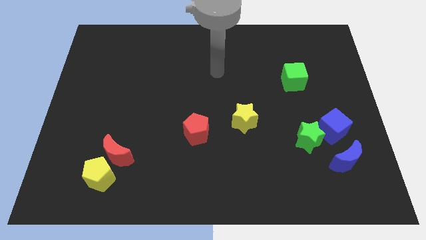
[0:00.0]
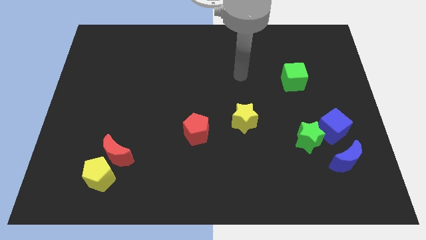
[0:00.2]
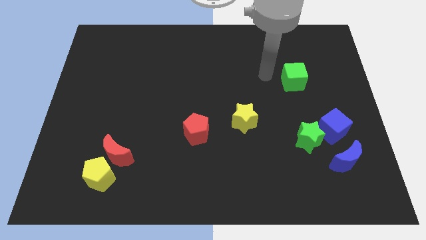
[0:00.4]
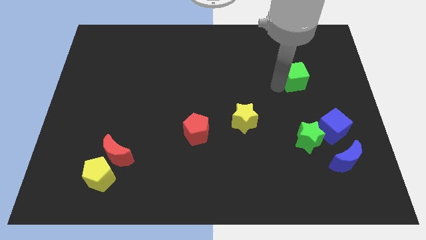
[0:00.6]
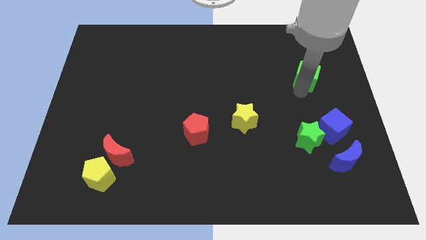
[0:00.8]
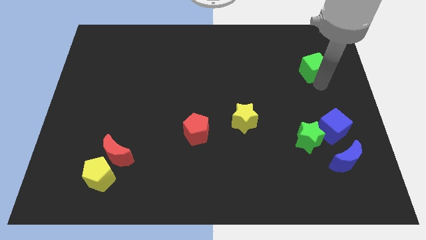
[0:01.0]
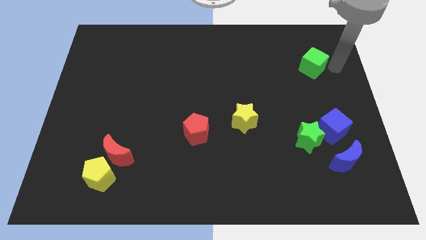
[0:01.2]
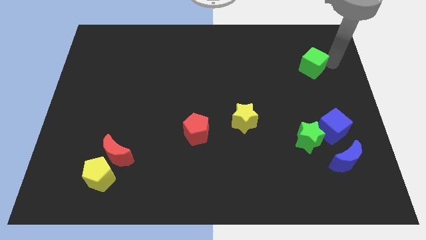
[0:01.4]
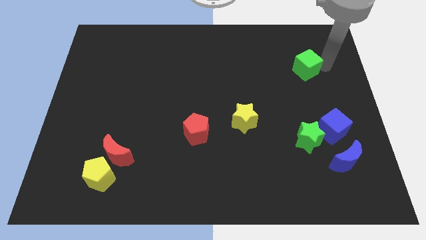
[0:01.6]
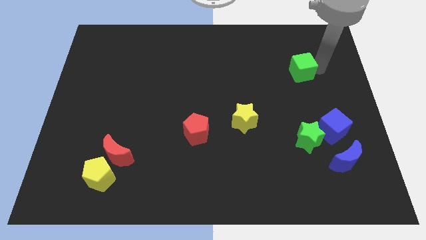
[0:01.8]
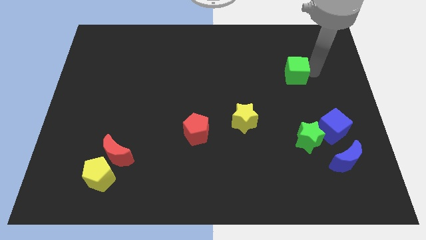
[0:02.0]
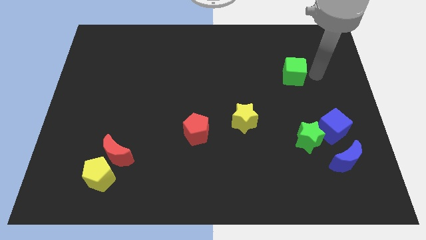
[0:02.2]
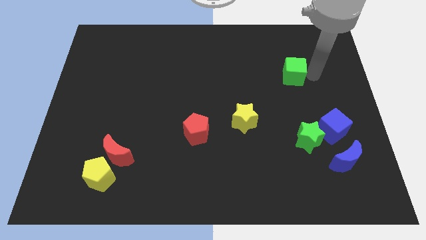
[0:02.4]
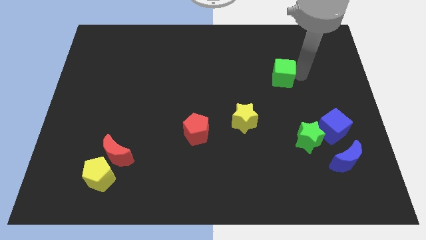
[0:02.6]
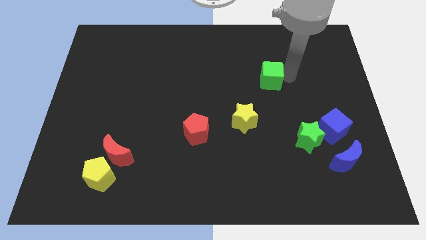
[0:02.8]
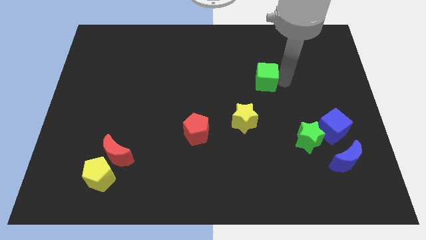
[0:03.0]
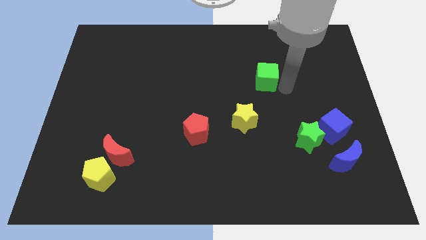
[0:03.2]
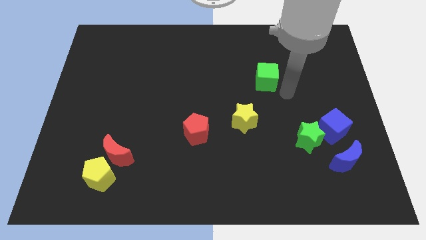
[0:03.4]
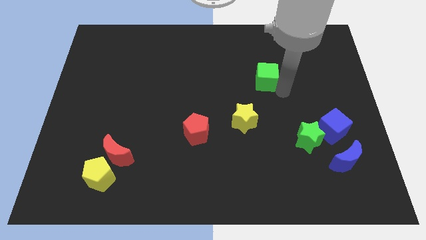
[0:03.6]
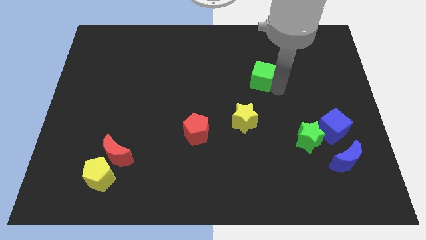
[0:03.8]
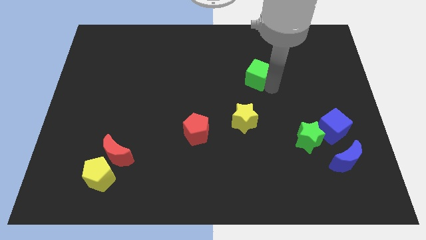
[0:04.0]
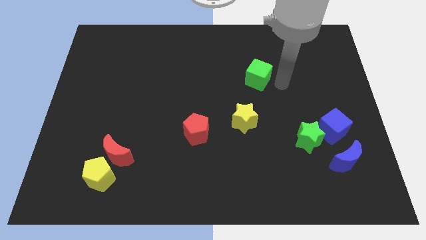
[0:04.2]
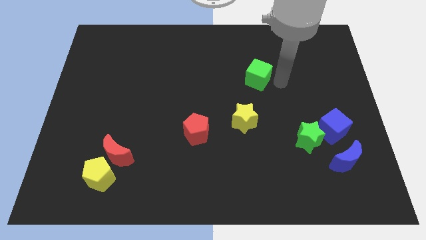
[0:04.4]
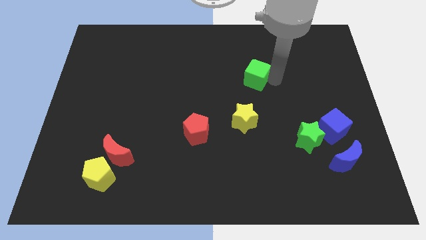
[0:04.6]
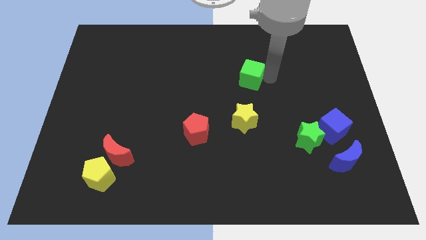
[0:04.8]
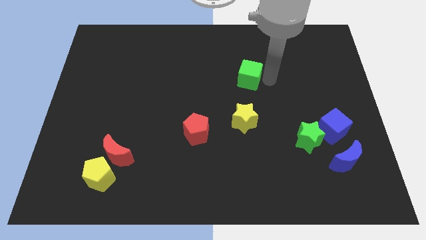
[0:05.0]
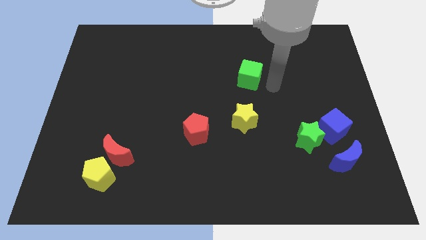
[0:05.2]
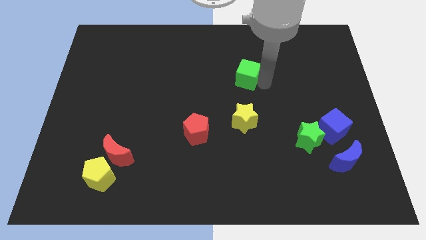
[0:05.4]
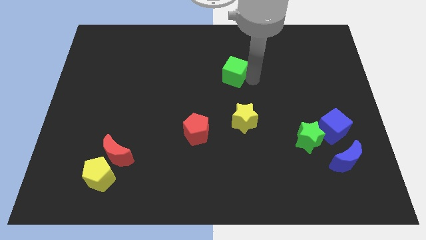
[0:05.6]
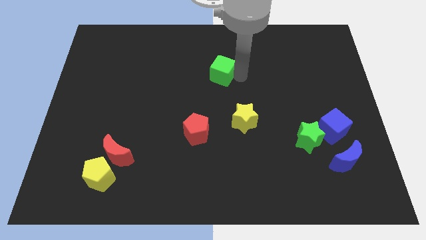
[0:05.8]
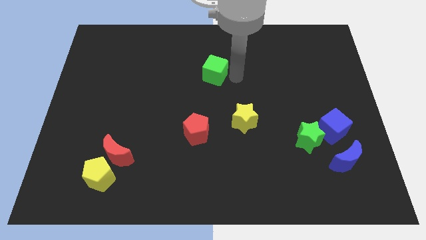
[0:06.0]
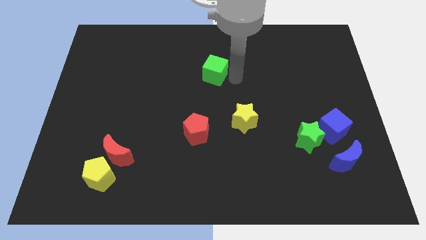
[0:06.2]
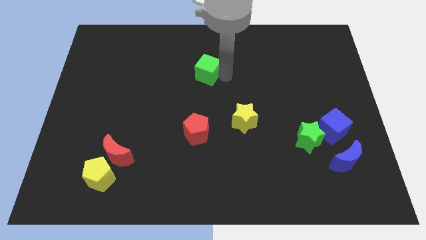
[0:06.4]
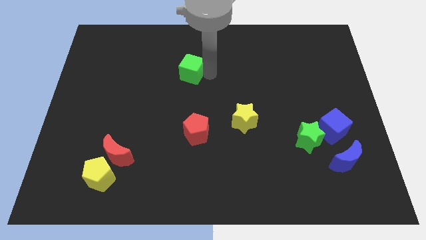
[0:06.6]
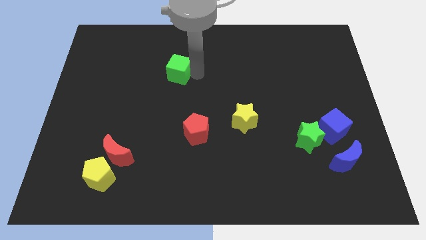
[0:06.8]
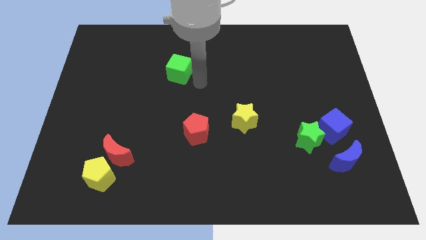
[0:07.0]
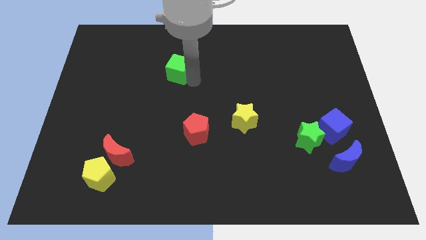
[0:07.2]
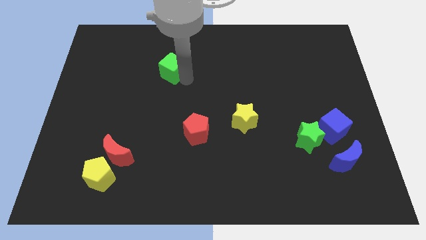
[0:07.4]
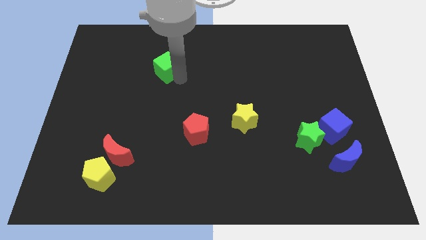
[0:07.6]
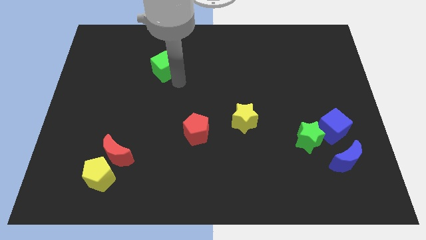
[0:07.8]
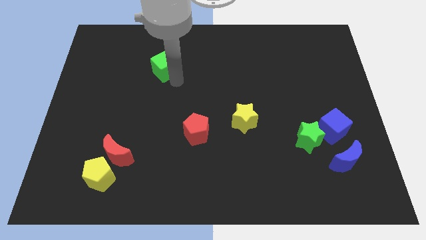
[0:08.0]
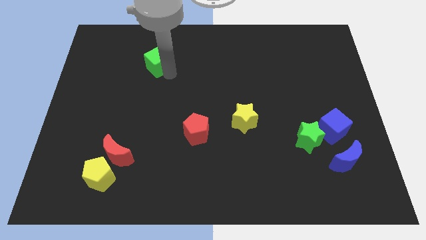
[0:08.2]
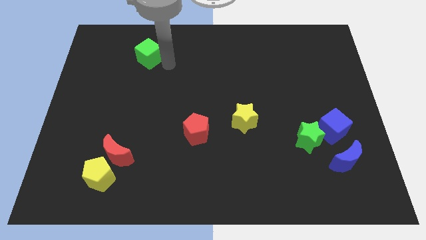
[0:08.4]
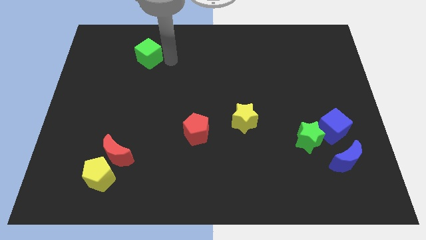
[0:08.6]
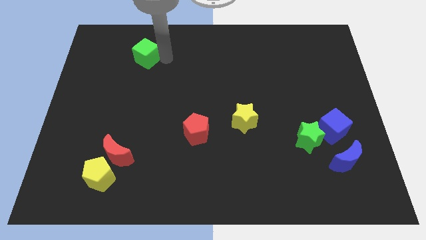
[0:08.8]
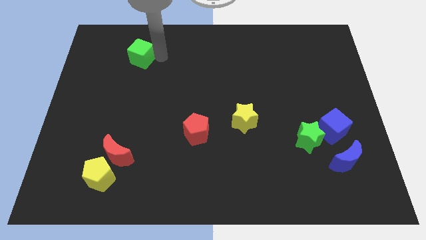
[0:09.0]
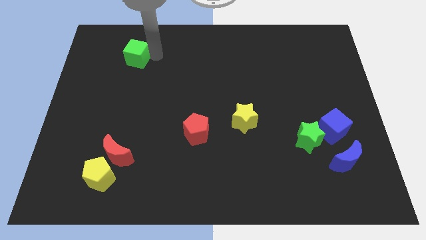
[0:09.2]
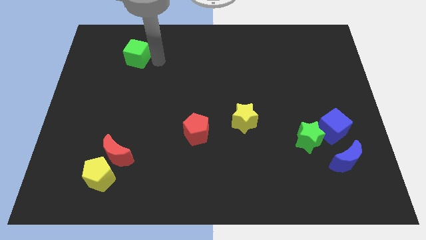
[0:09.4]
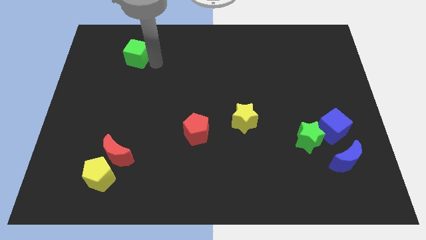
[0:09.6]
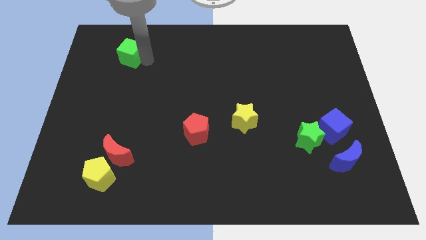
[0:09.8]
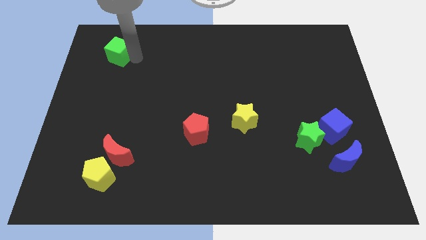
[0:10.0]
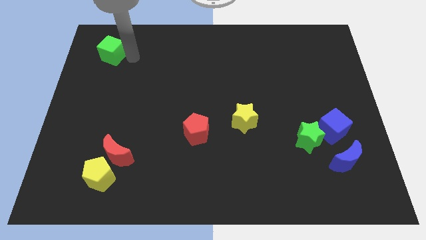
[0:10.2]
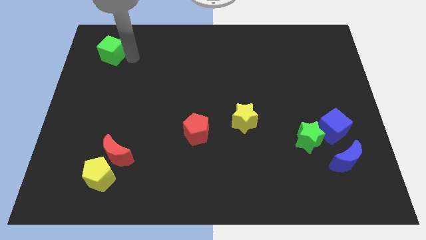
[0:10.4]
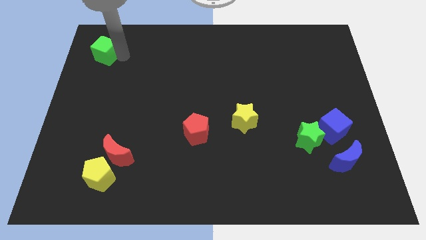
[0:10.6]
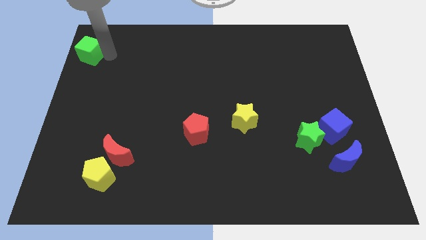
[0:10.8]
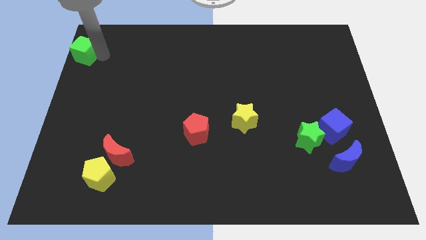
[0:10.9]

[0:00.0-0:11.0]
move the green cube to the top left of the board

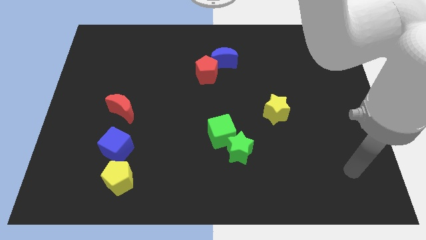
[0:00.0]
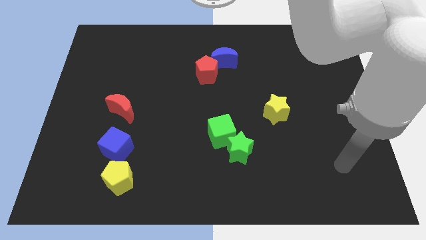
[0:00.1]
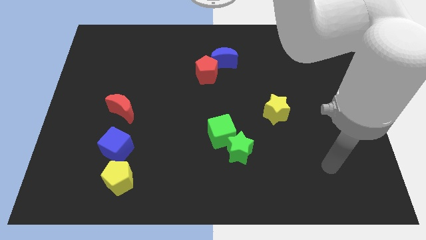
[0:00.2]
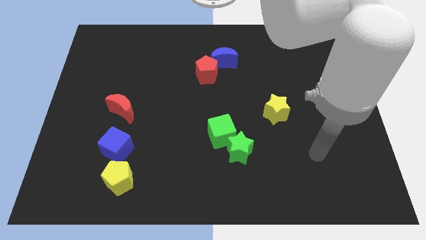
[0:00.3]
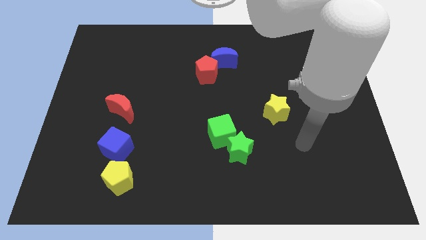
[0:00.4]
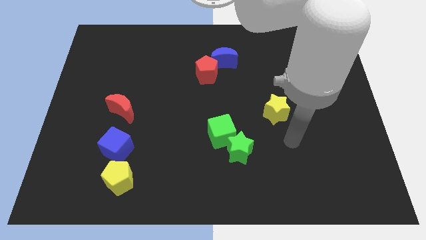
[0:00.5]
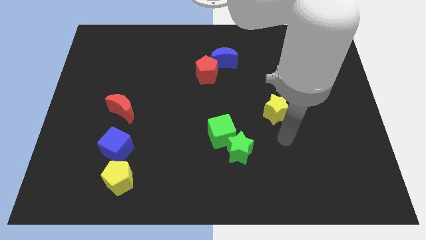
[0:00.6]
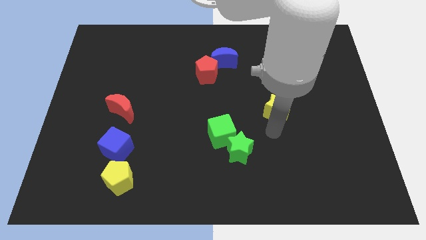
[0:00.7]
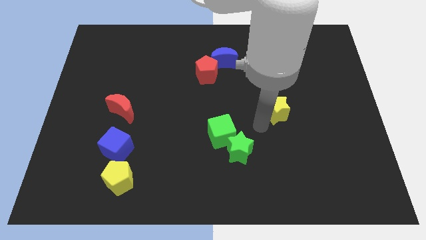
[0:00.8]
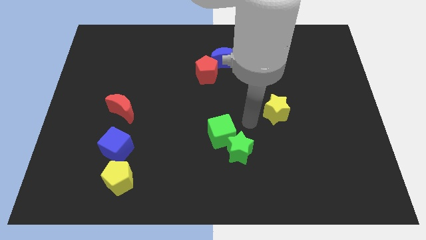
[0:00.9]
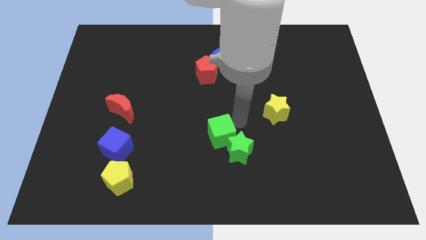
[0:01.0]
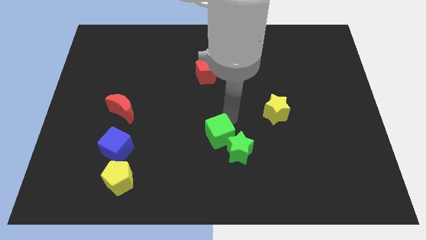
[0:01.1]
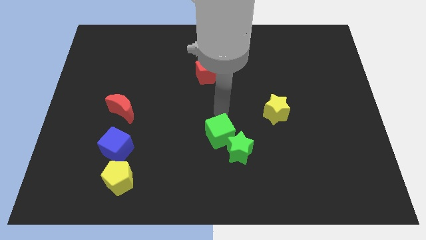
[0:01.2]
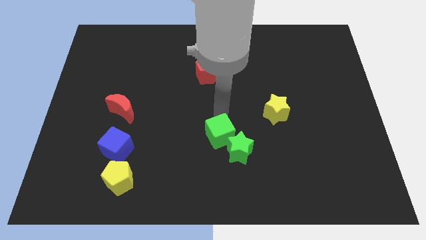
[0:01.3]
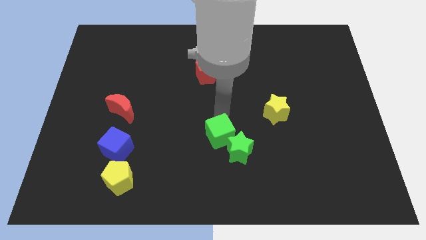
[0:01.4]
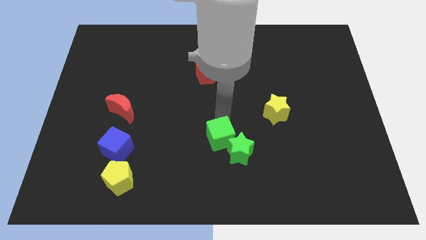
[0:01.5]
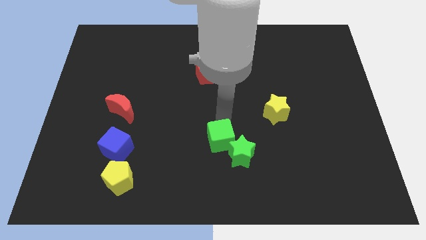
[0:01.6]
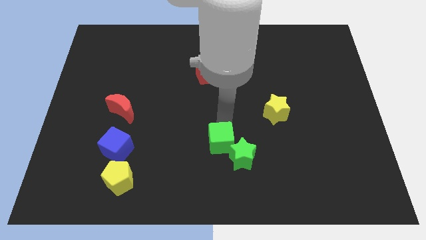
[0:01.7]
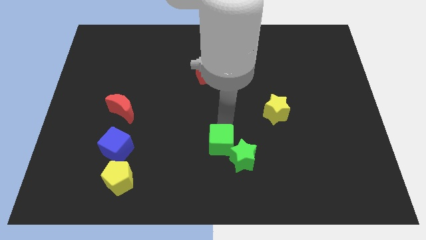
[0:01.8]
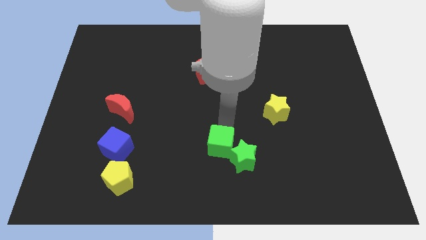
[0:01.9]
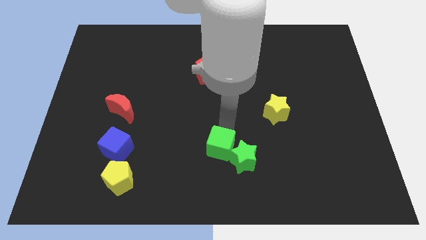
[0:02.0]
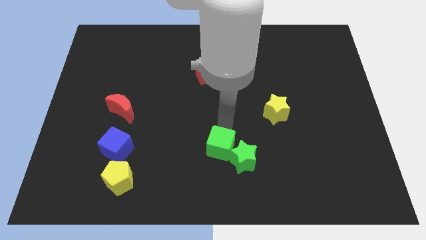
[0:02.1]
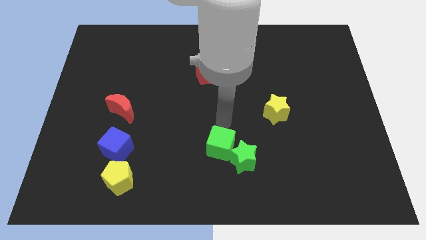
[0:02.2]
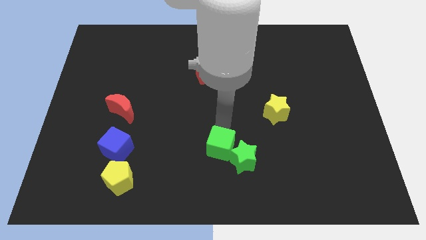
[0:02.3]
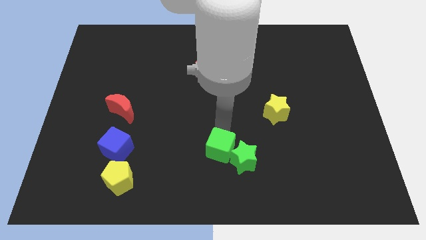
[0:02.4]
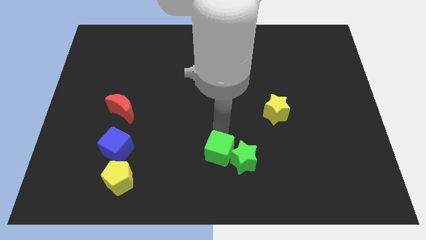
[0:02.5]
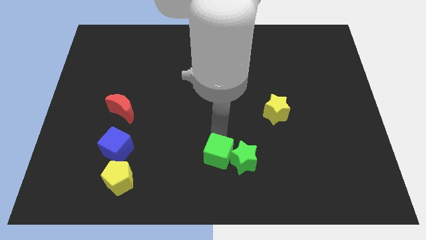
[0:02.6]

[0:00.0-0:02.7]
move the green cube to the bottom side
